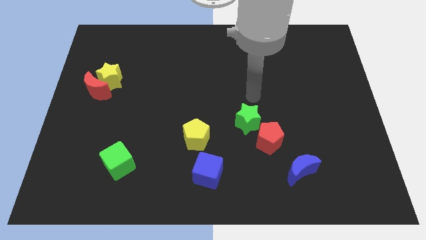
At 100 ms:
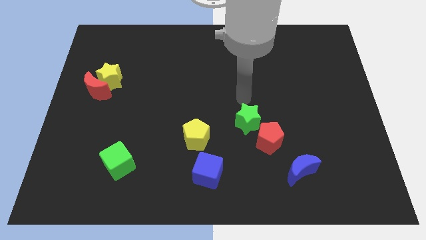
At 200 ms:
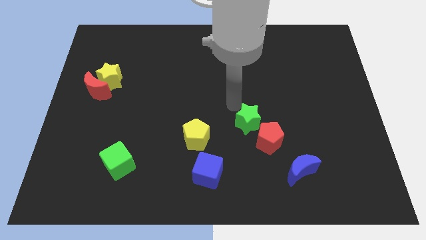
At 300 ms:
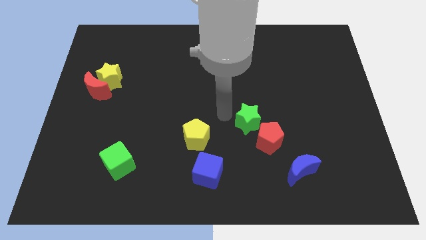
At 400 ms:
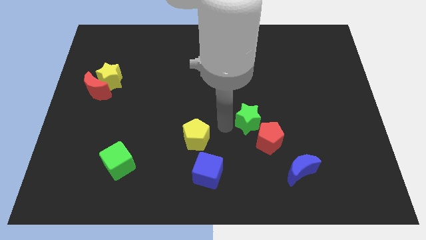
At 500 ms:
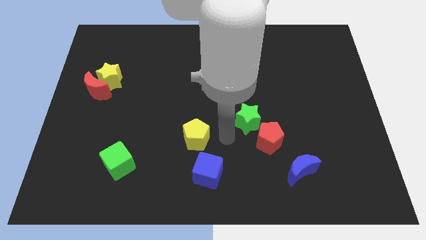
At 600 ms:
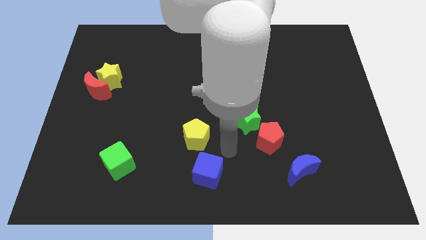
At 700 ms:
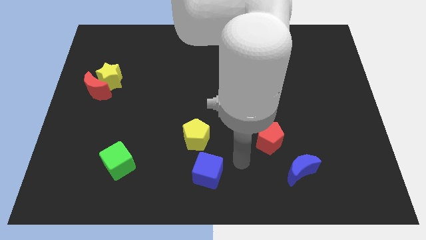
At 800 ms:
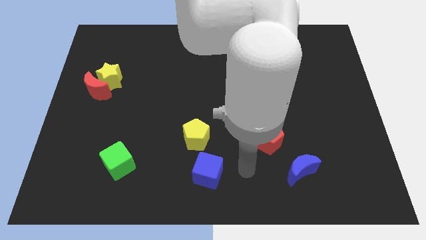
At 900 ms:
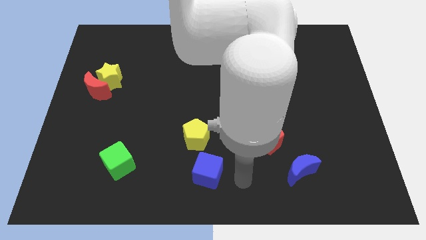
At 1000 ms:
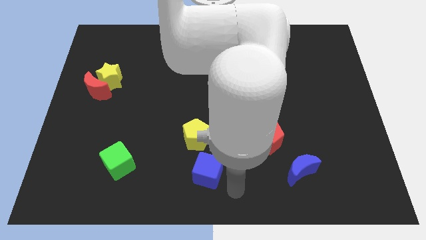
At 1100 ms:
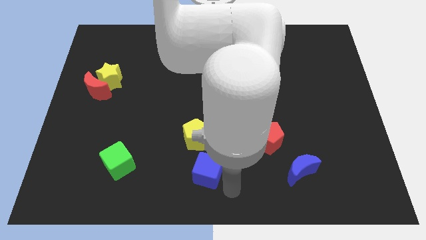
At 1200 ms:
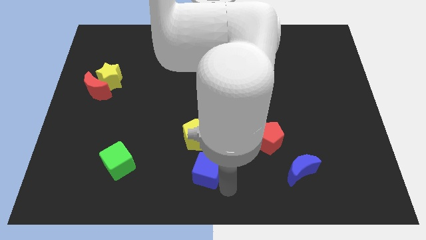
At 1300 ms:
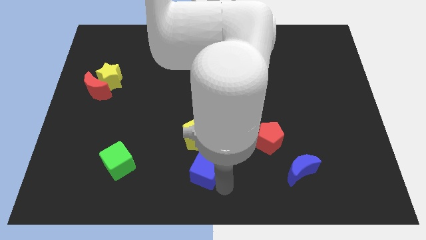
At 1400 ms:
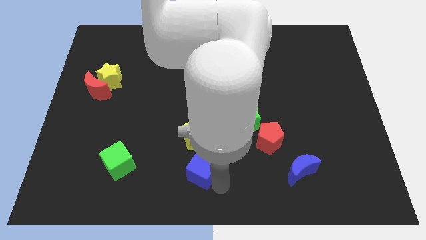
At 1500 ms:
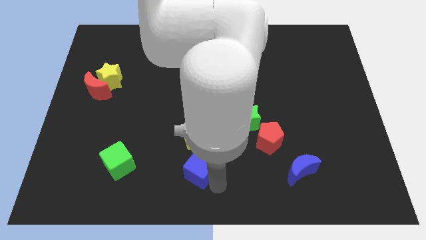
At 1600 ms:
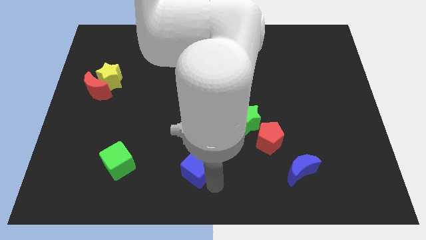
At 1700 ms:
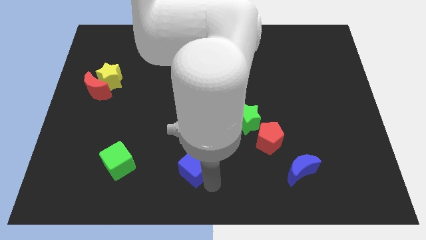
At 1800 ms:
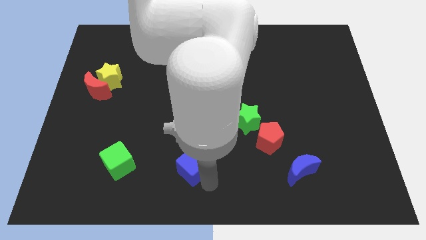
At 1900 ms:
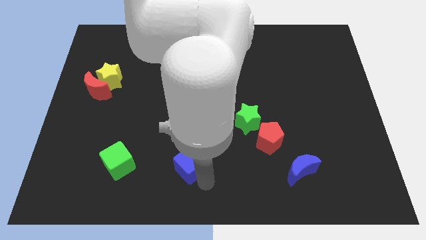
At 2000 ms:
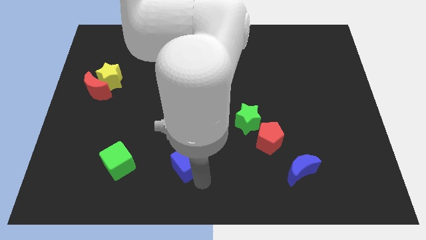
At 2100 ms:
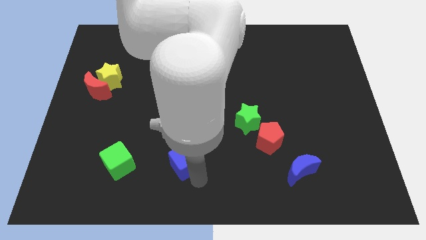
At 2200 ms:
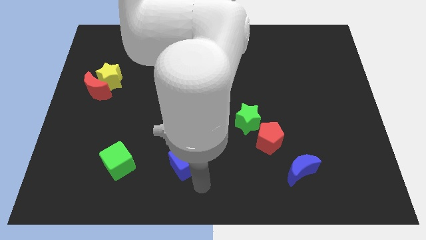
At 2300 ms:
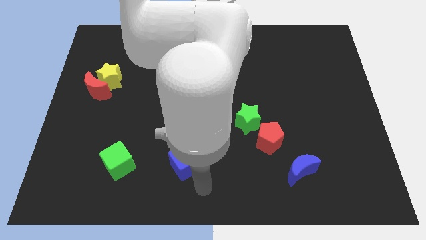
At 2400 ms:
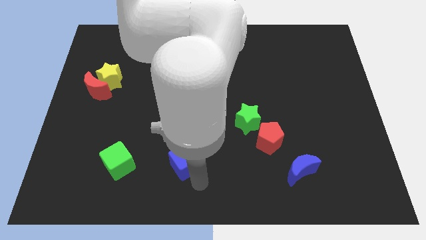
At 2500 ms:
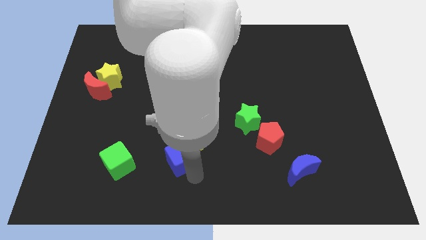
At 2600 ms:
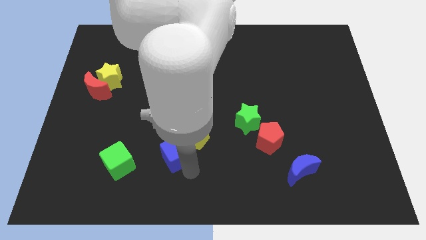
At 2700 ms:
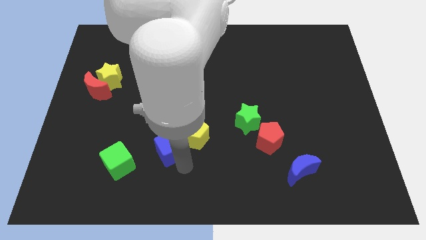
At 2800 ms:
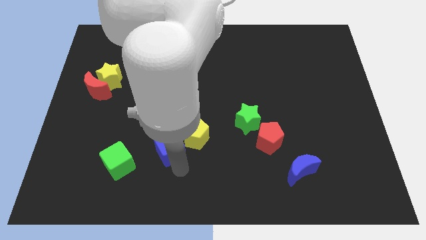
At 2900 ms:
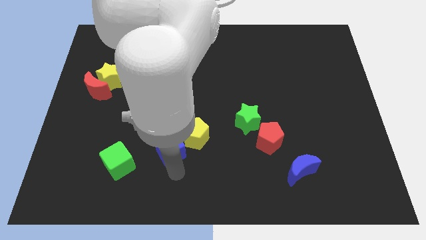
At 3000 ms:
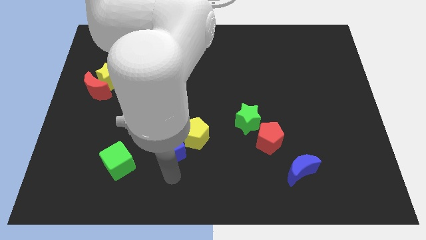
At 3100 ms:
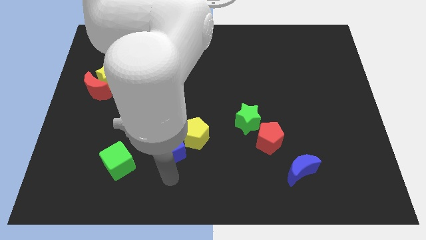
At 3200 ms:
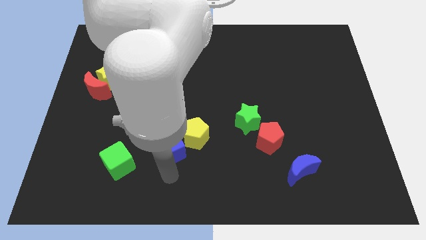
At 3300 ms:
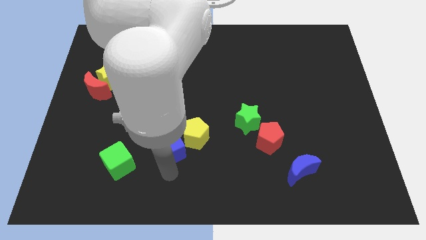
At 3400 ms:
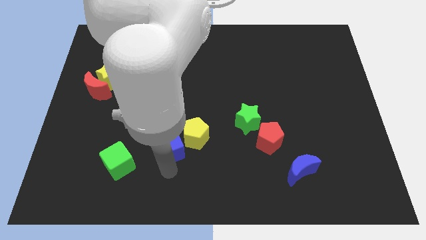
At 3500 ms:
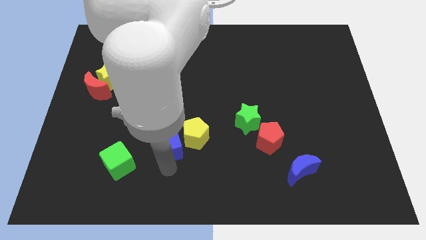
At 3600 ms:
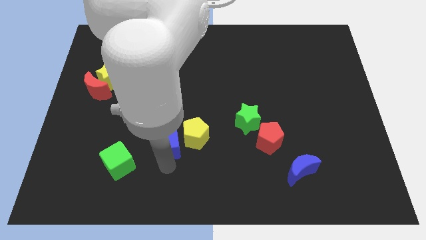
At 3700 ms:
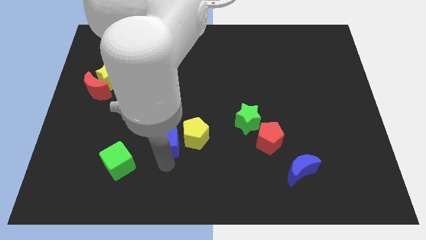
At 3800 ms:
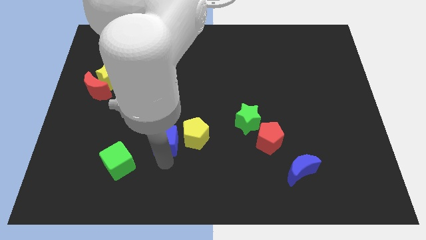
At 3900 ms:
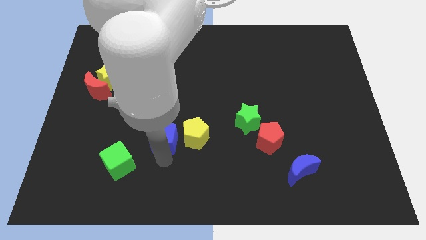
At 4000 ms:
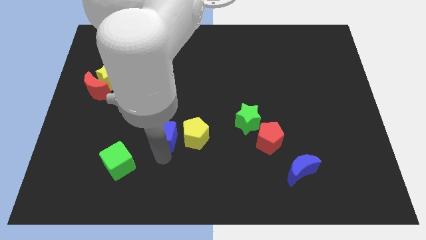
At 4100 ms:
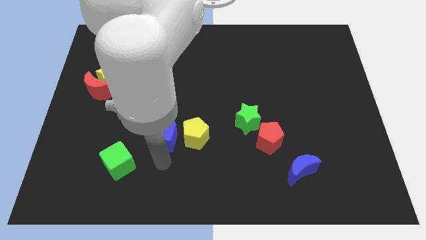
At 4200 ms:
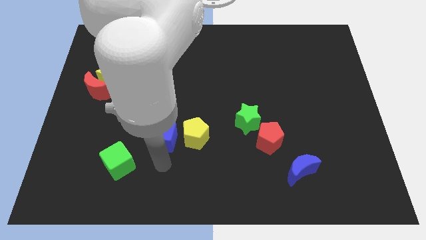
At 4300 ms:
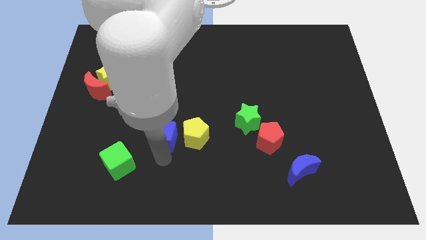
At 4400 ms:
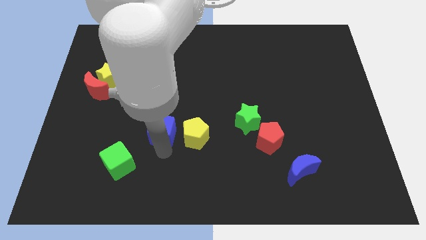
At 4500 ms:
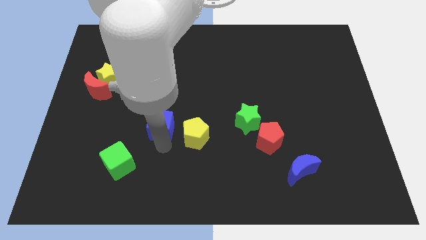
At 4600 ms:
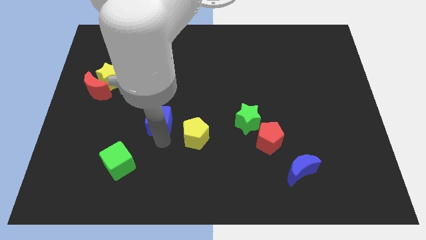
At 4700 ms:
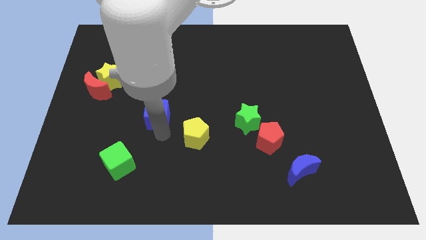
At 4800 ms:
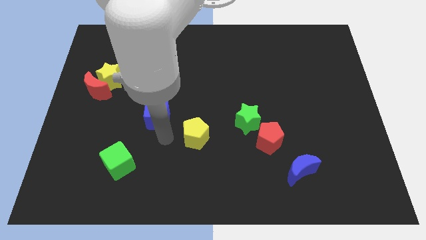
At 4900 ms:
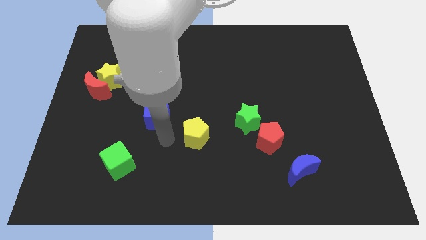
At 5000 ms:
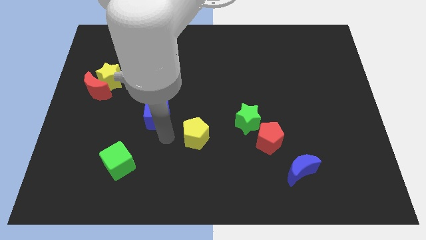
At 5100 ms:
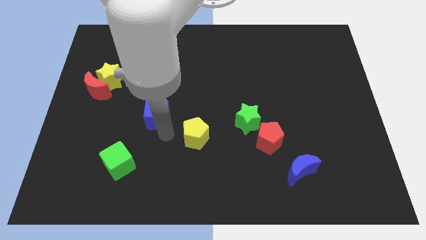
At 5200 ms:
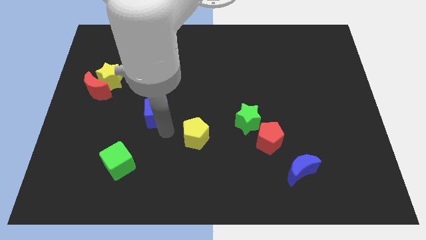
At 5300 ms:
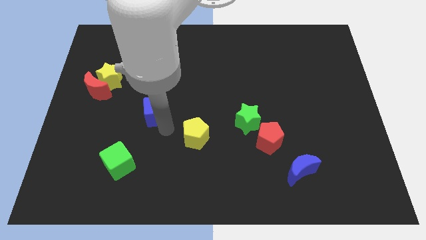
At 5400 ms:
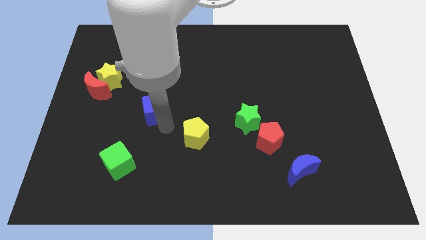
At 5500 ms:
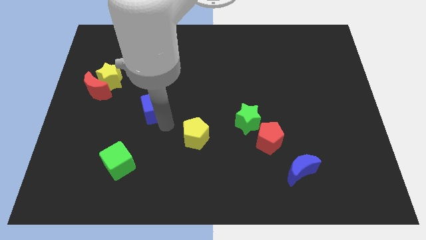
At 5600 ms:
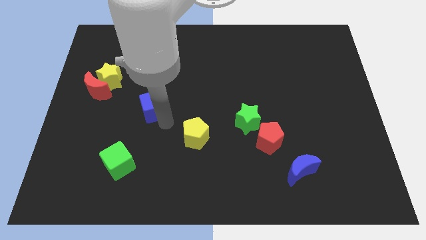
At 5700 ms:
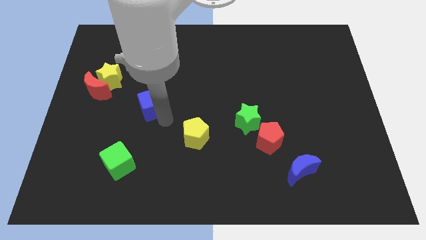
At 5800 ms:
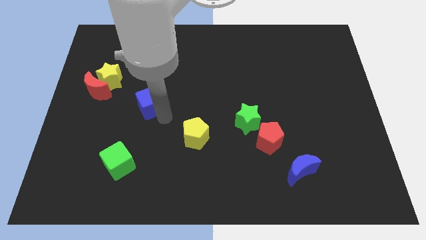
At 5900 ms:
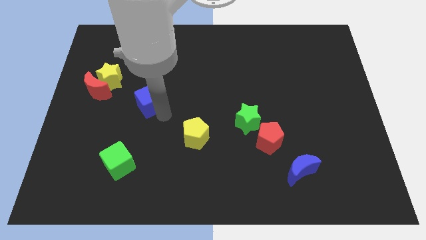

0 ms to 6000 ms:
slide the blue cube to the right side of the red moon

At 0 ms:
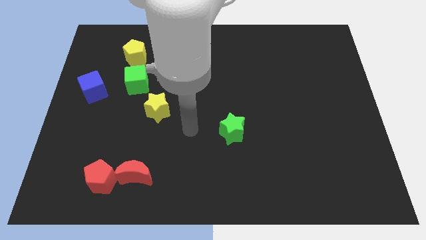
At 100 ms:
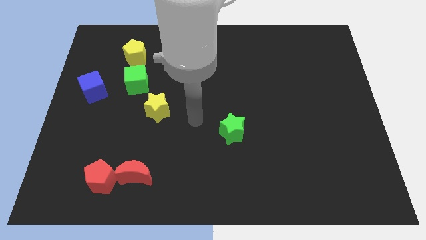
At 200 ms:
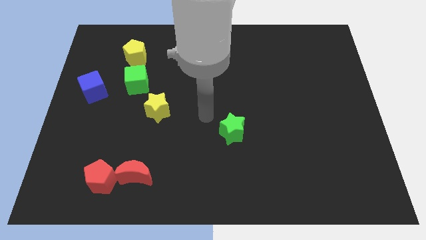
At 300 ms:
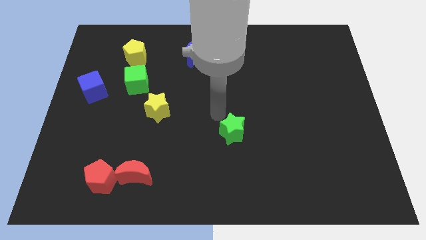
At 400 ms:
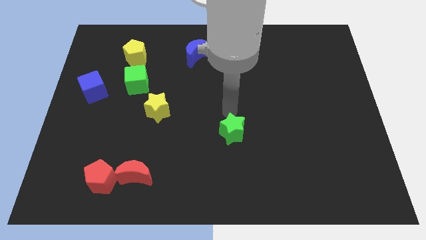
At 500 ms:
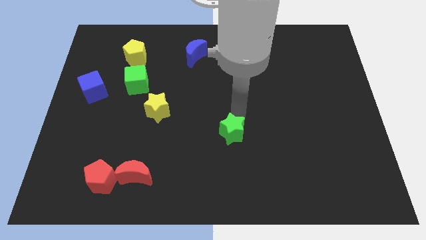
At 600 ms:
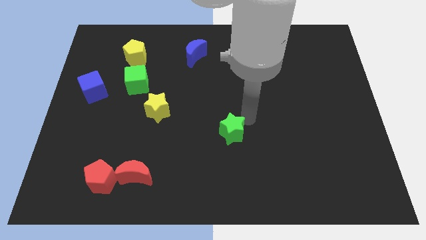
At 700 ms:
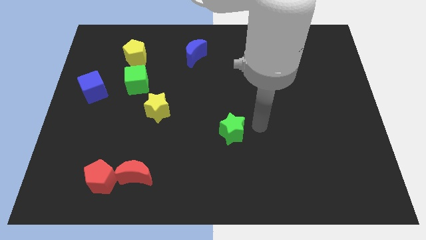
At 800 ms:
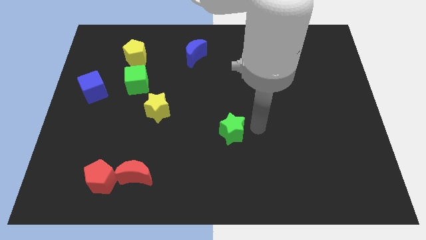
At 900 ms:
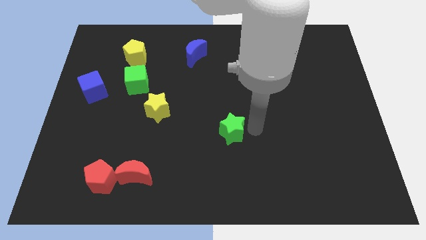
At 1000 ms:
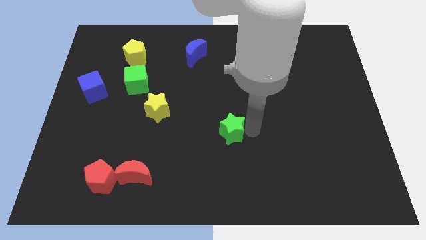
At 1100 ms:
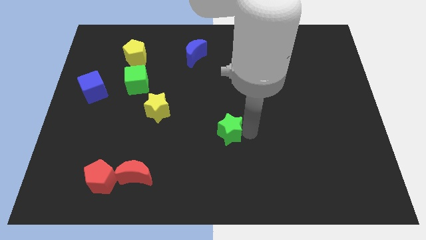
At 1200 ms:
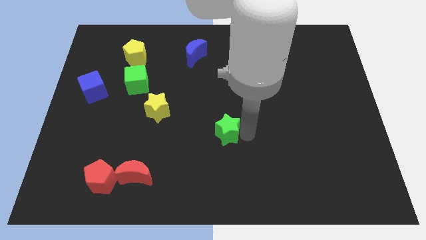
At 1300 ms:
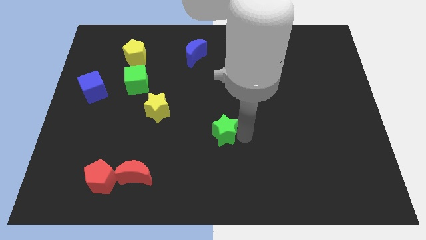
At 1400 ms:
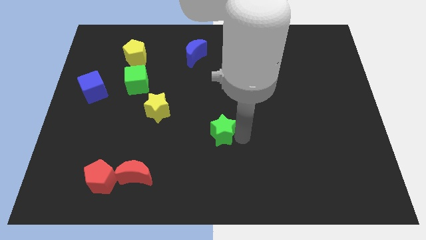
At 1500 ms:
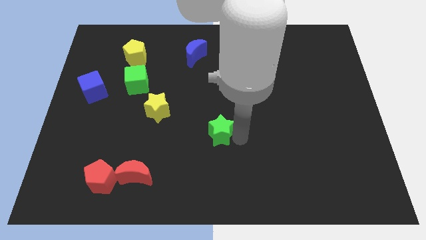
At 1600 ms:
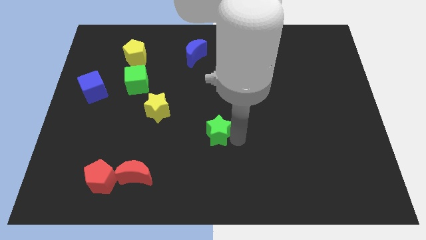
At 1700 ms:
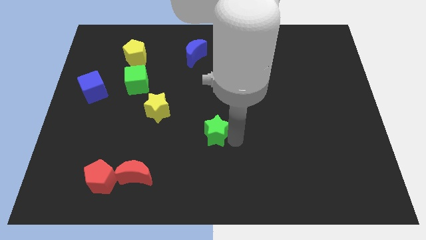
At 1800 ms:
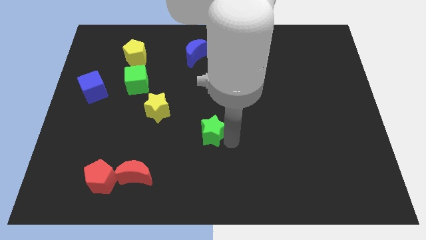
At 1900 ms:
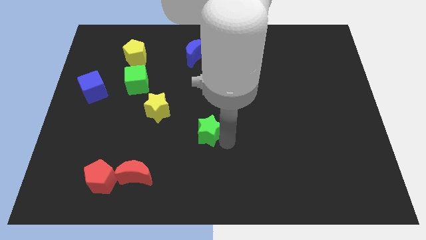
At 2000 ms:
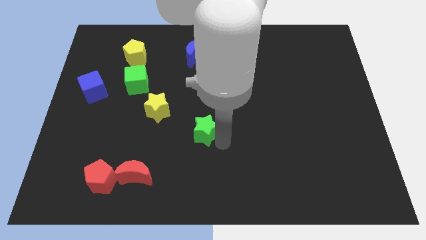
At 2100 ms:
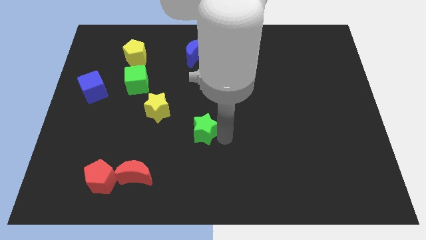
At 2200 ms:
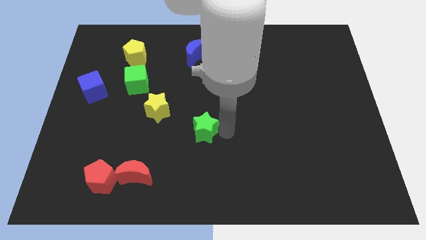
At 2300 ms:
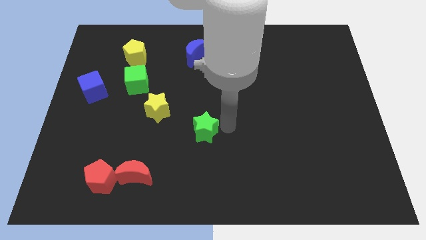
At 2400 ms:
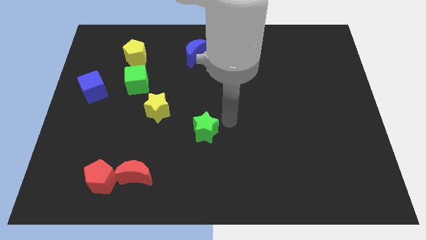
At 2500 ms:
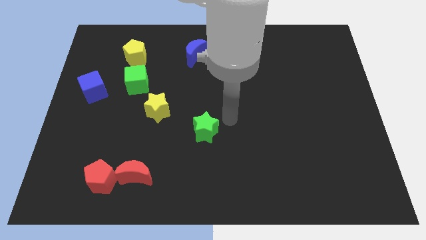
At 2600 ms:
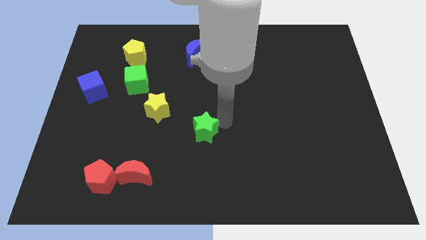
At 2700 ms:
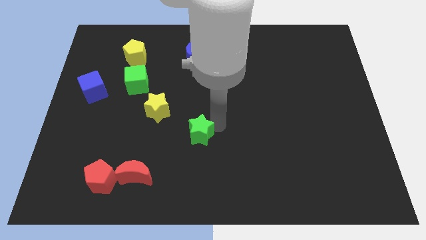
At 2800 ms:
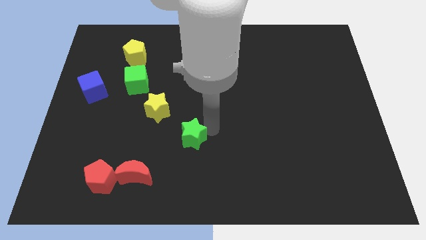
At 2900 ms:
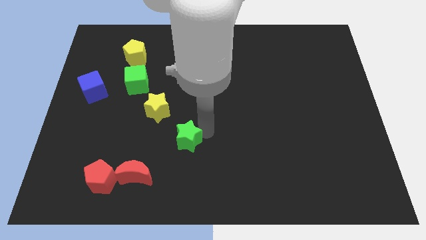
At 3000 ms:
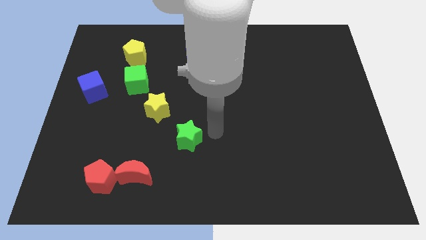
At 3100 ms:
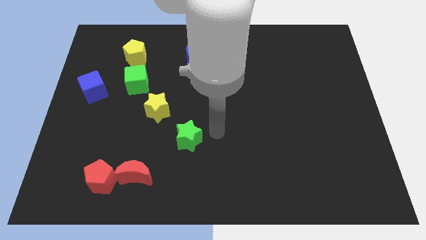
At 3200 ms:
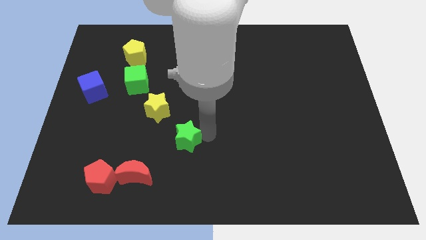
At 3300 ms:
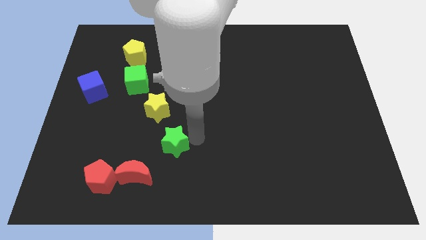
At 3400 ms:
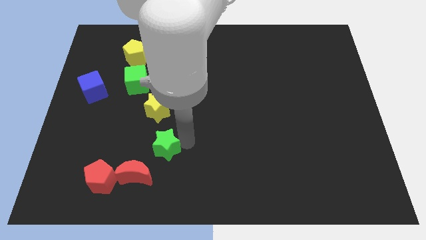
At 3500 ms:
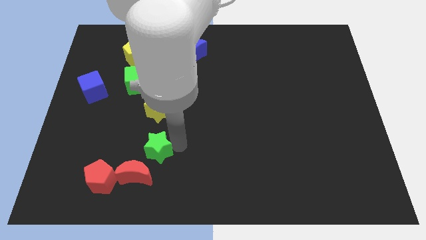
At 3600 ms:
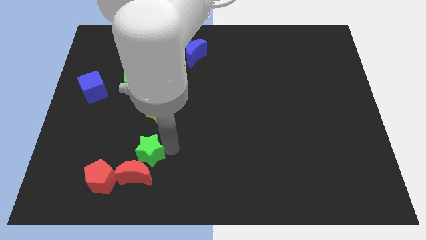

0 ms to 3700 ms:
move the green star to the top right side of the red pentagon
